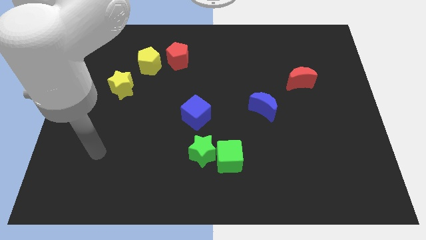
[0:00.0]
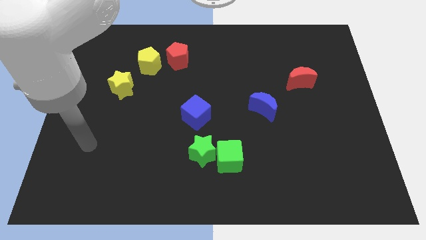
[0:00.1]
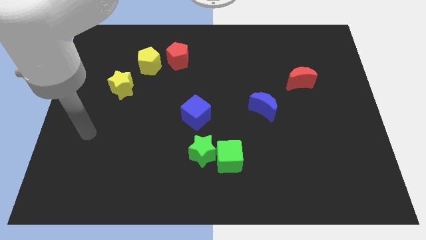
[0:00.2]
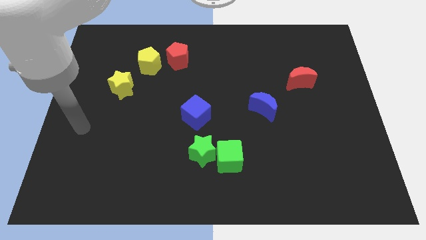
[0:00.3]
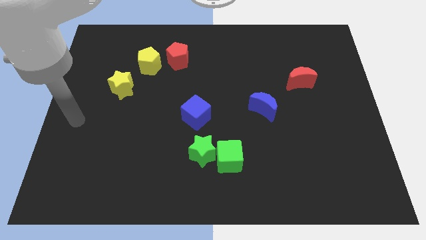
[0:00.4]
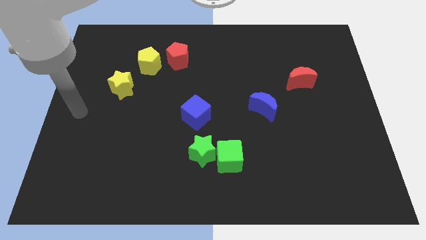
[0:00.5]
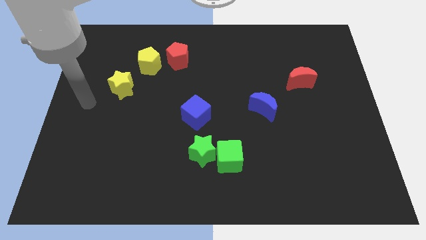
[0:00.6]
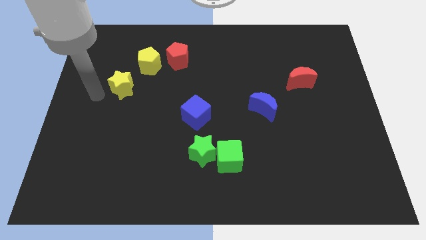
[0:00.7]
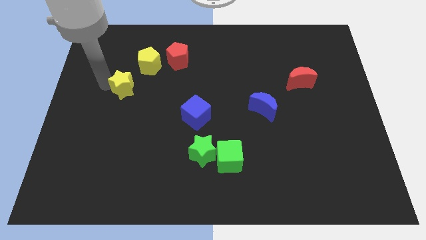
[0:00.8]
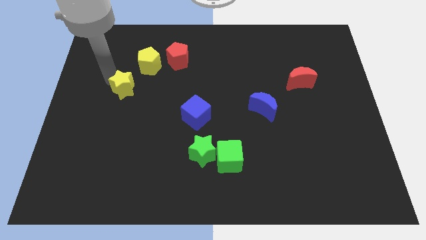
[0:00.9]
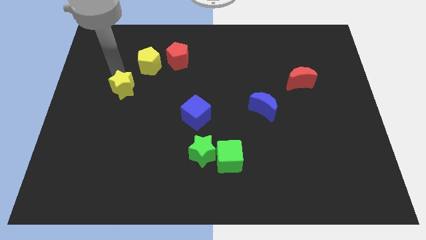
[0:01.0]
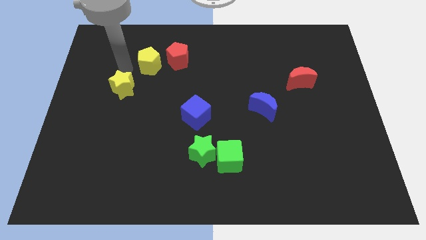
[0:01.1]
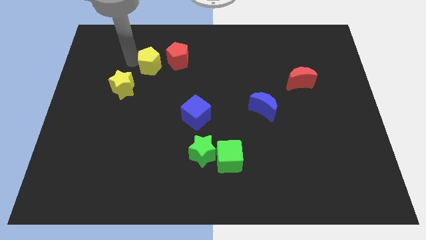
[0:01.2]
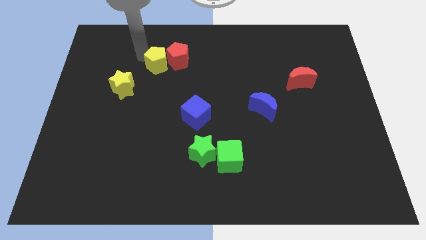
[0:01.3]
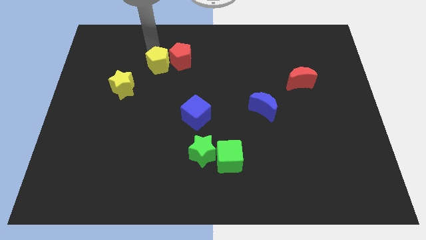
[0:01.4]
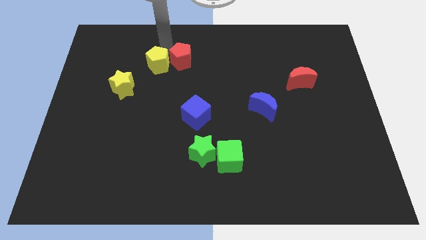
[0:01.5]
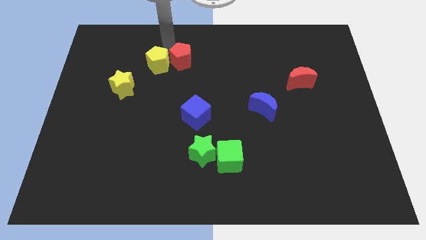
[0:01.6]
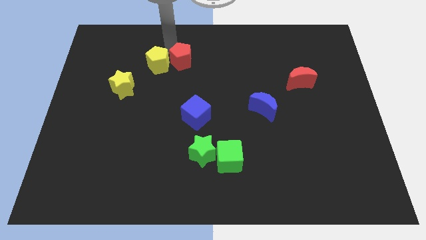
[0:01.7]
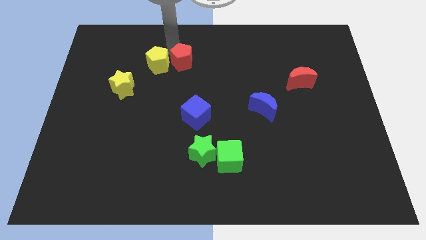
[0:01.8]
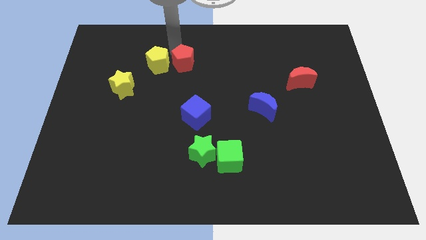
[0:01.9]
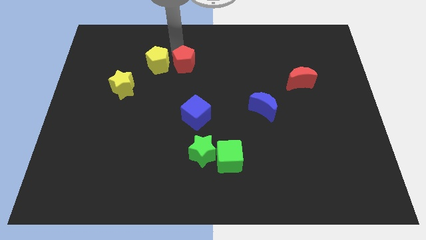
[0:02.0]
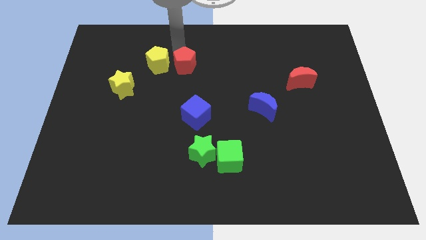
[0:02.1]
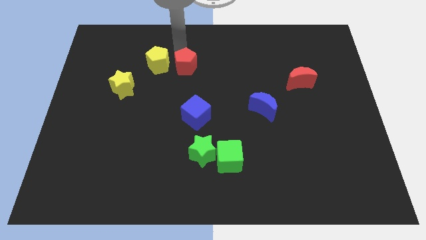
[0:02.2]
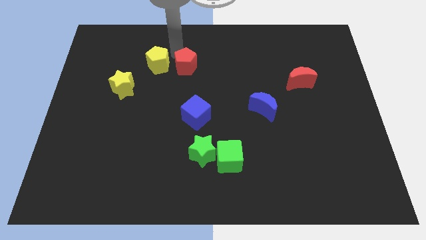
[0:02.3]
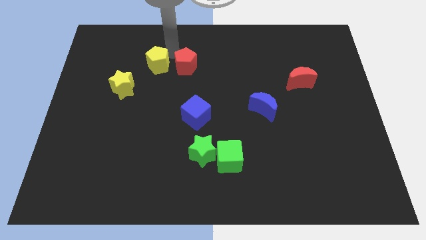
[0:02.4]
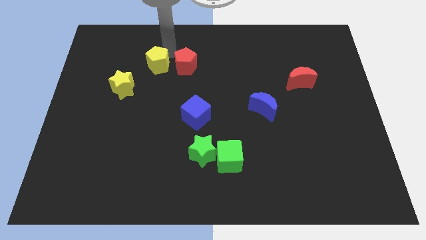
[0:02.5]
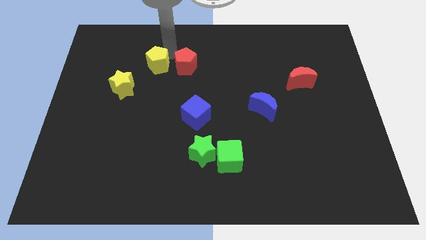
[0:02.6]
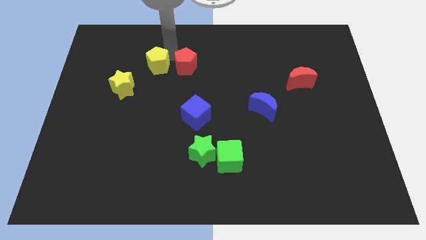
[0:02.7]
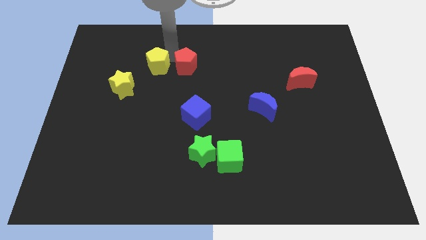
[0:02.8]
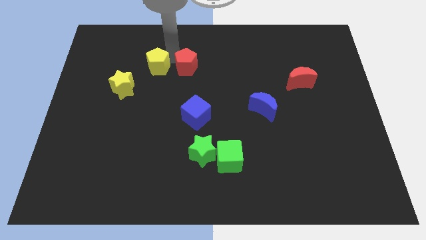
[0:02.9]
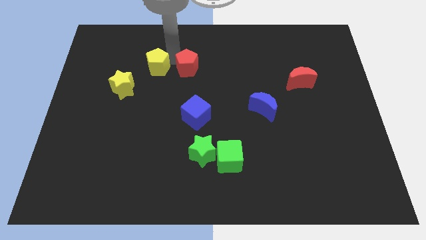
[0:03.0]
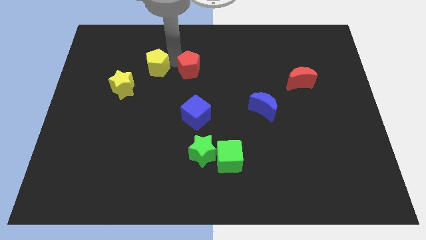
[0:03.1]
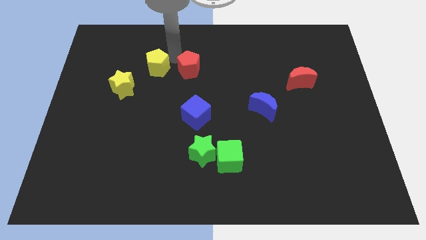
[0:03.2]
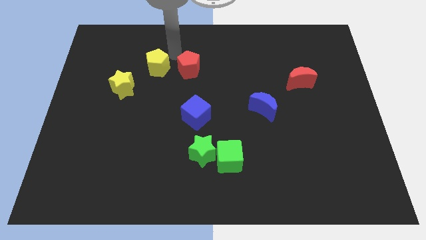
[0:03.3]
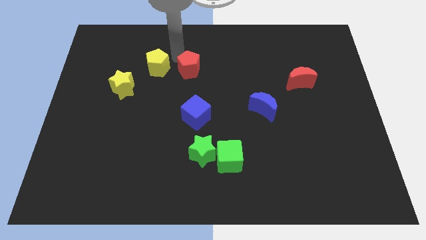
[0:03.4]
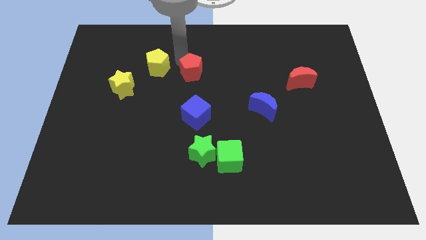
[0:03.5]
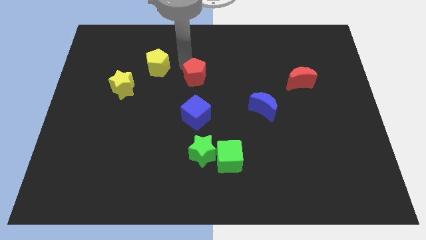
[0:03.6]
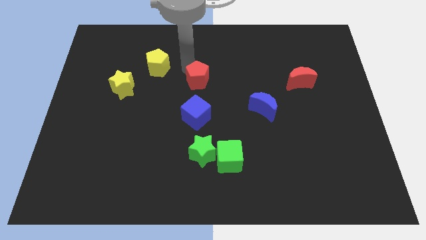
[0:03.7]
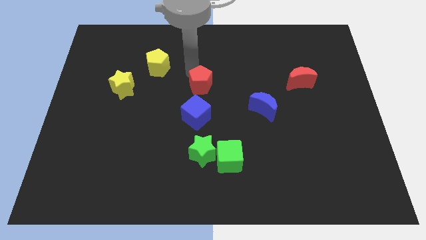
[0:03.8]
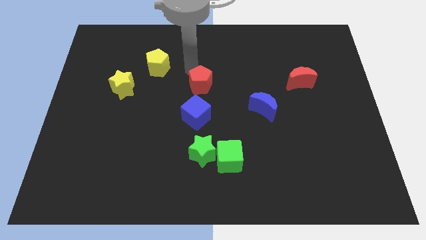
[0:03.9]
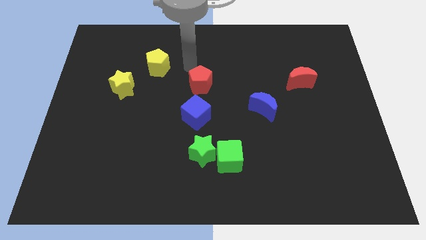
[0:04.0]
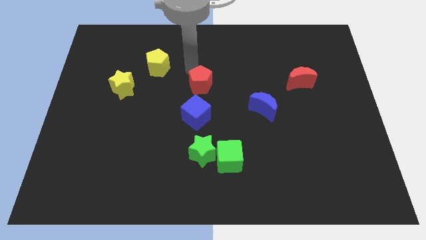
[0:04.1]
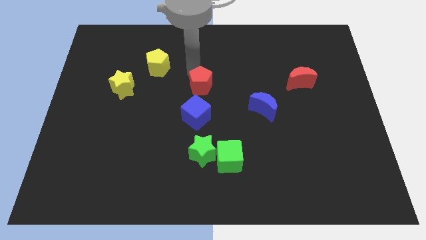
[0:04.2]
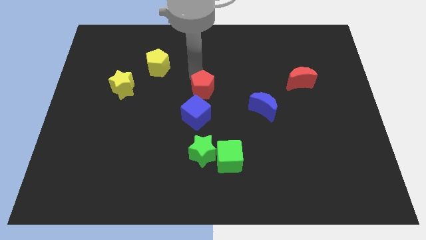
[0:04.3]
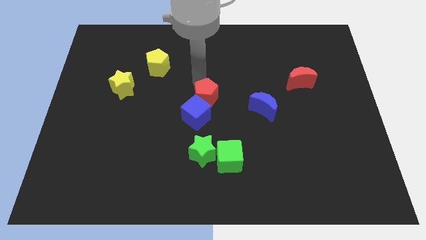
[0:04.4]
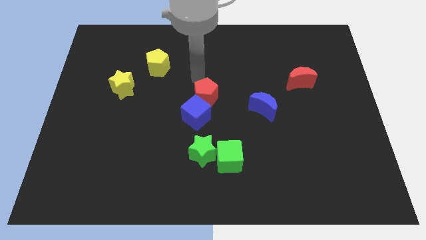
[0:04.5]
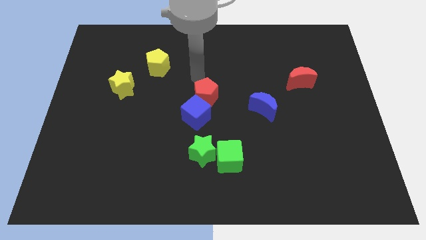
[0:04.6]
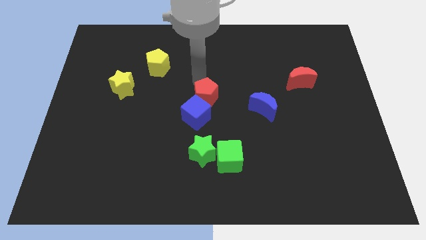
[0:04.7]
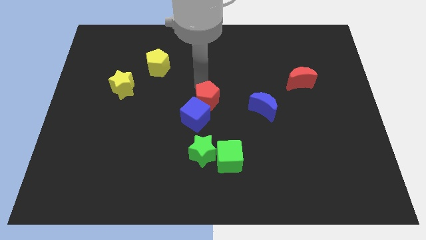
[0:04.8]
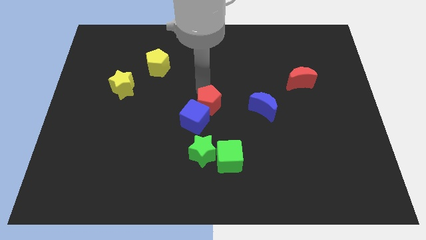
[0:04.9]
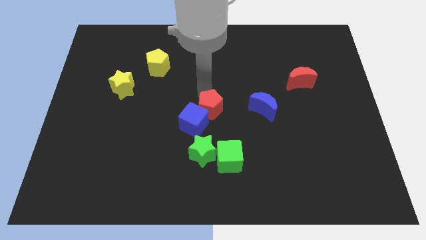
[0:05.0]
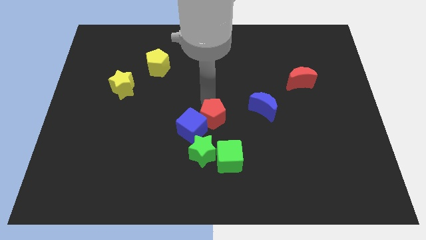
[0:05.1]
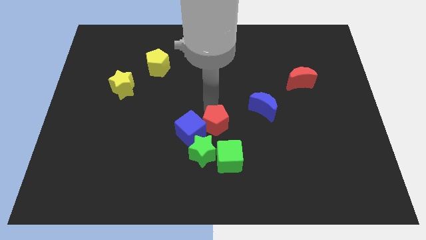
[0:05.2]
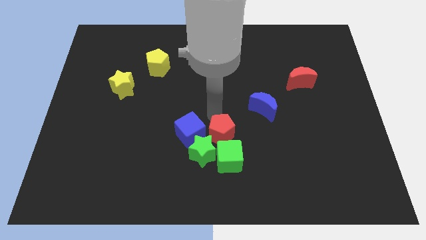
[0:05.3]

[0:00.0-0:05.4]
put the red pentagon diagonally down and to the right of the blue cube

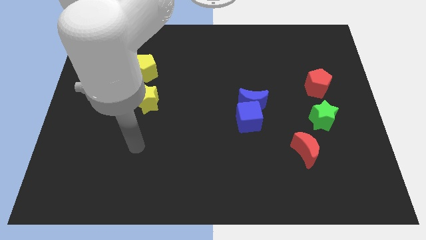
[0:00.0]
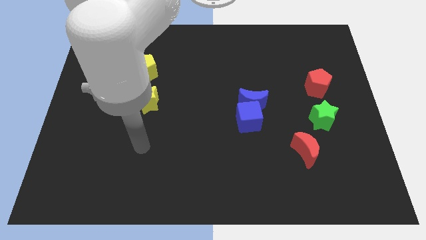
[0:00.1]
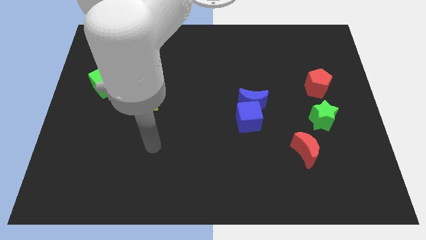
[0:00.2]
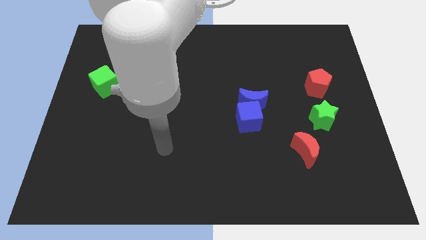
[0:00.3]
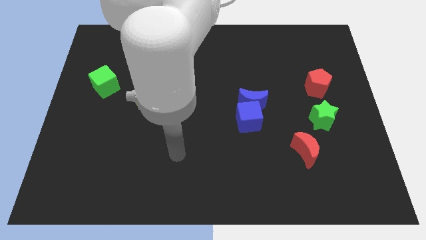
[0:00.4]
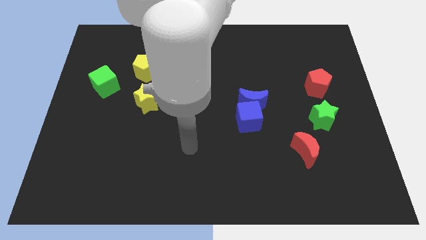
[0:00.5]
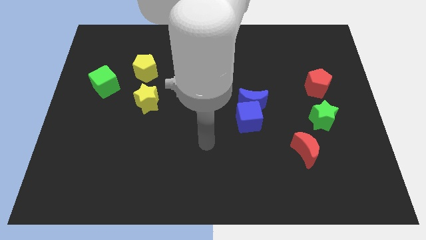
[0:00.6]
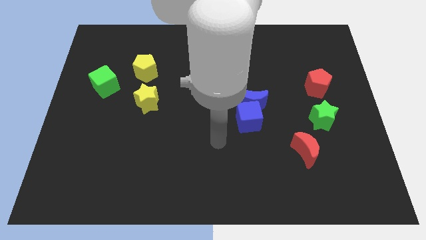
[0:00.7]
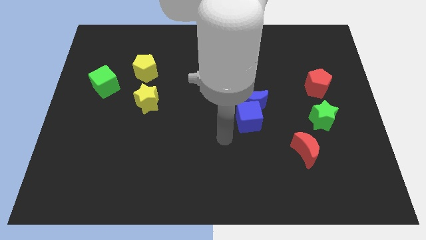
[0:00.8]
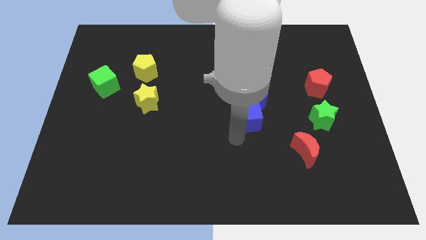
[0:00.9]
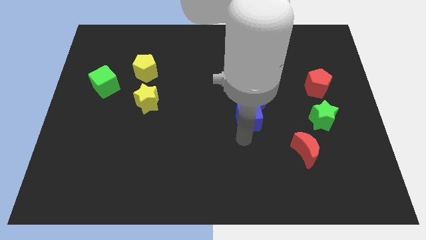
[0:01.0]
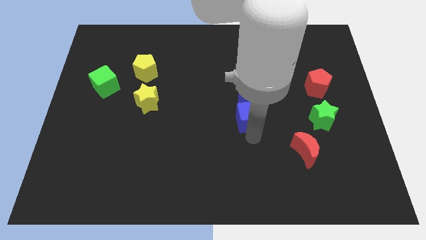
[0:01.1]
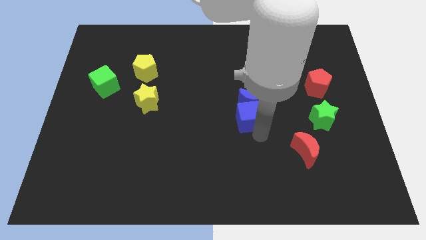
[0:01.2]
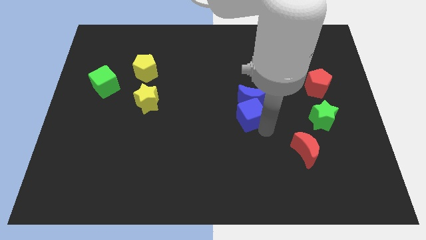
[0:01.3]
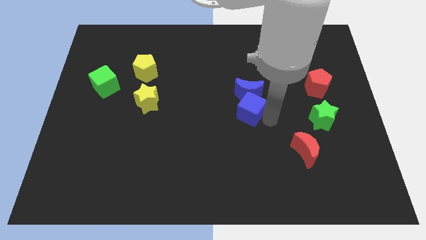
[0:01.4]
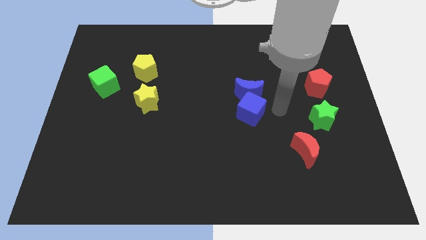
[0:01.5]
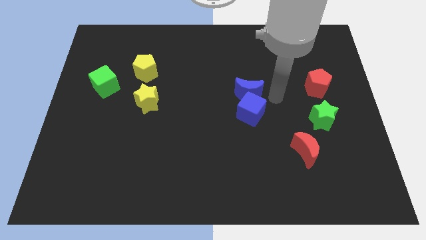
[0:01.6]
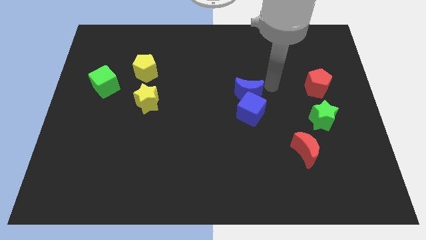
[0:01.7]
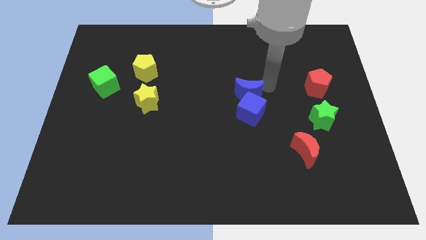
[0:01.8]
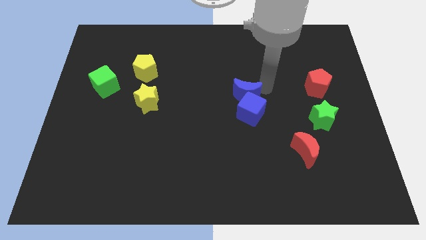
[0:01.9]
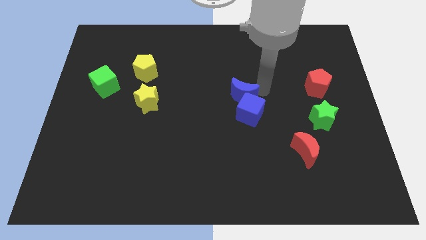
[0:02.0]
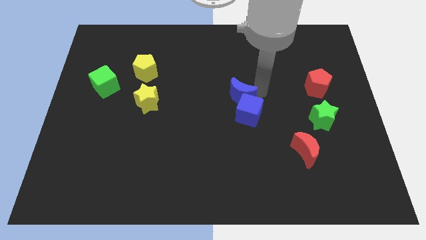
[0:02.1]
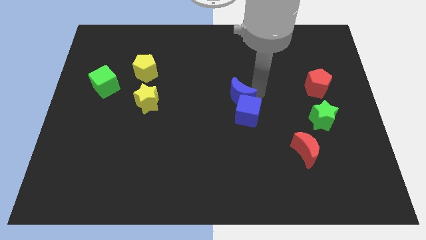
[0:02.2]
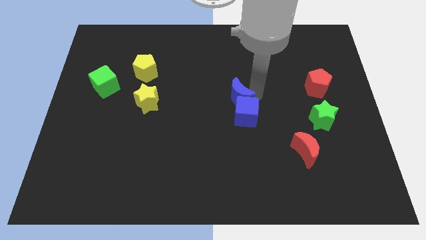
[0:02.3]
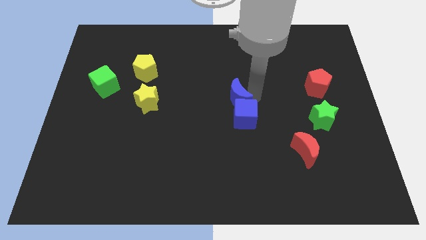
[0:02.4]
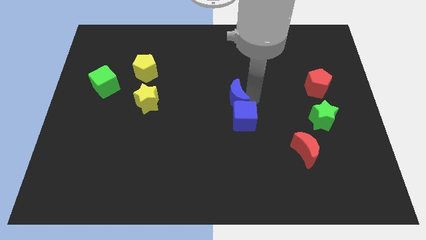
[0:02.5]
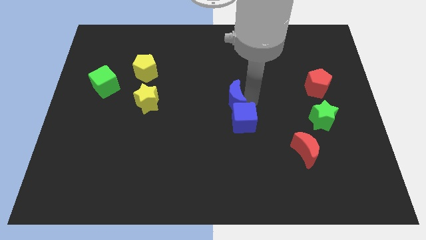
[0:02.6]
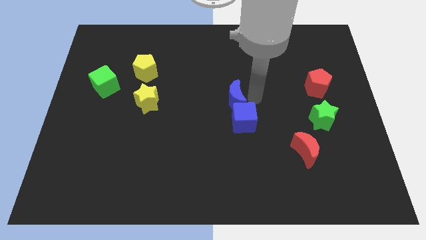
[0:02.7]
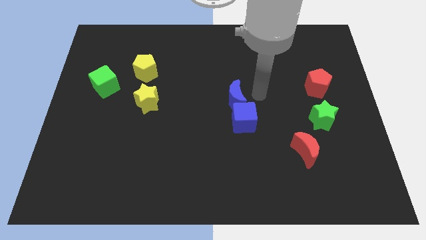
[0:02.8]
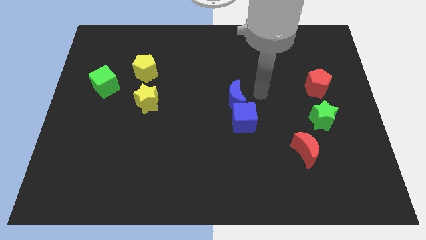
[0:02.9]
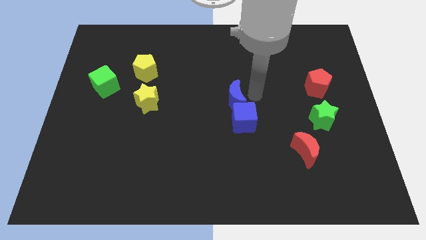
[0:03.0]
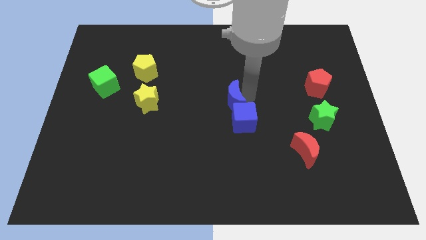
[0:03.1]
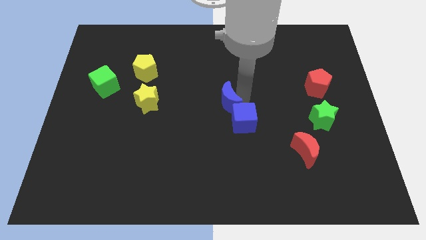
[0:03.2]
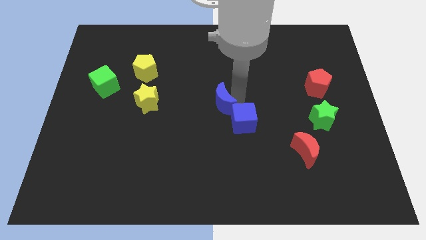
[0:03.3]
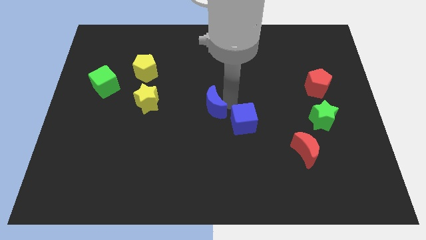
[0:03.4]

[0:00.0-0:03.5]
put the blue moon to the right of the yellow star
